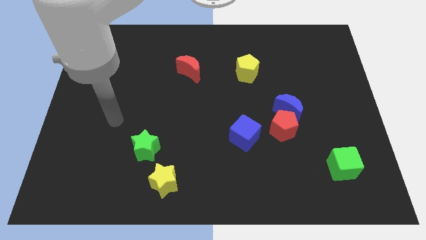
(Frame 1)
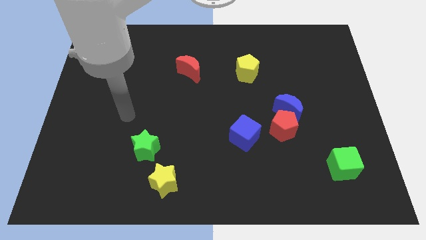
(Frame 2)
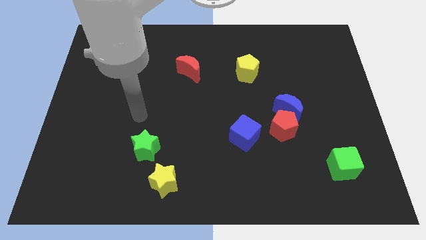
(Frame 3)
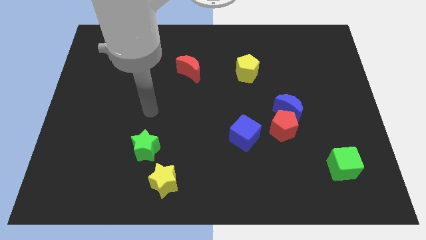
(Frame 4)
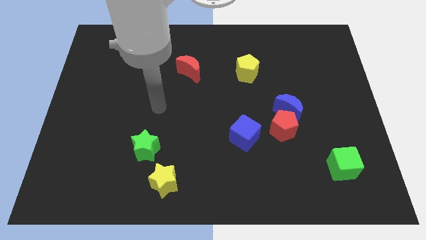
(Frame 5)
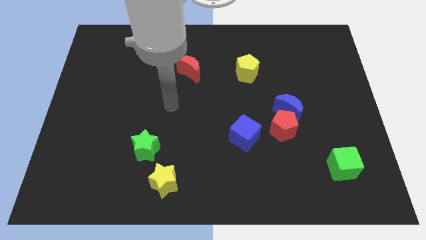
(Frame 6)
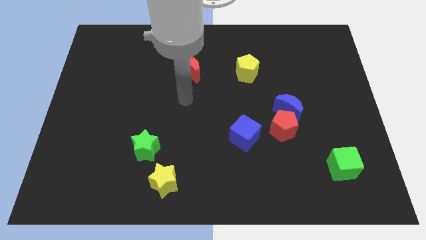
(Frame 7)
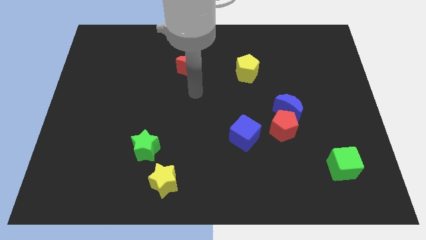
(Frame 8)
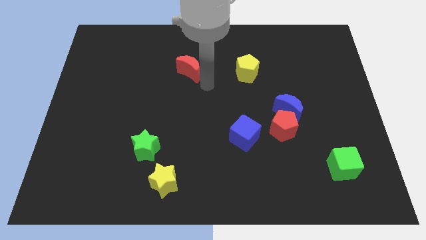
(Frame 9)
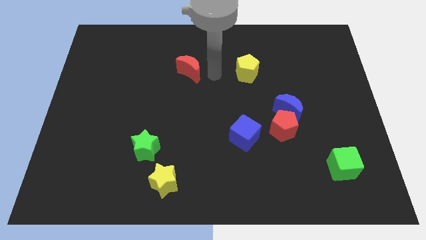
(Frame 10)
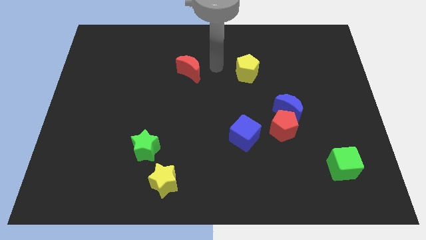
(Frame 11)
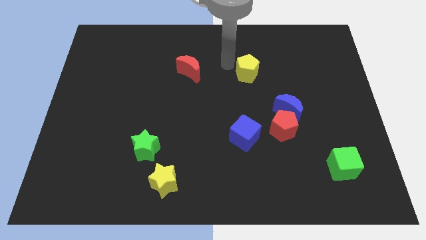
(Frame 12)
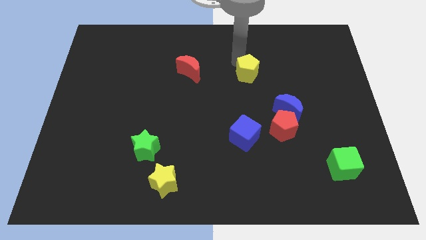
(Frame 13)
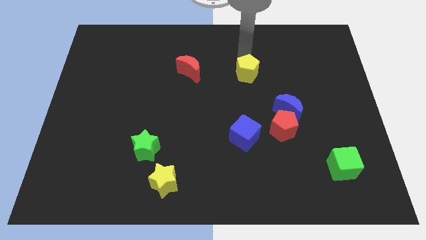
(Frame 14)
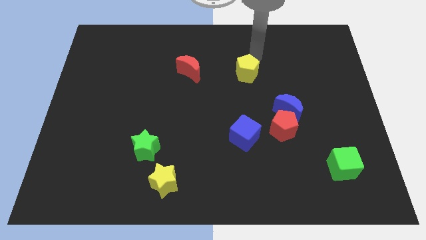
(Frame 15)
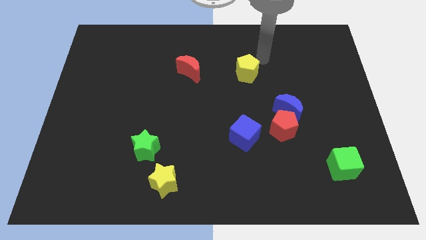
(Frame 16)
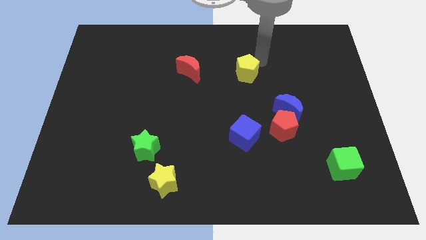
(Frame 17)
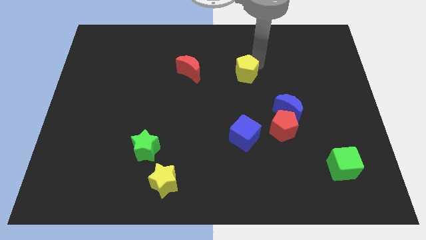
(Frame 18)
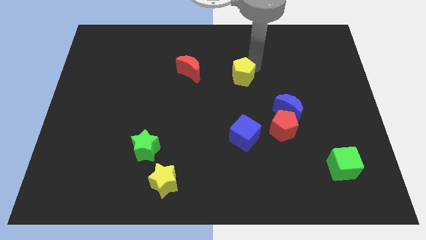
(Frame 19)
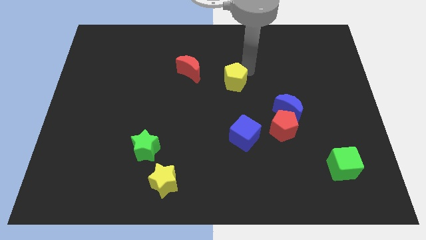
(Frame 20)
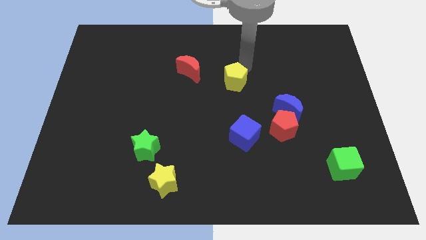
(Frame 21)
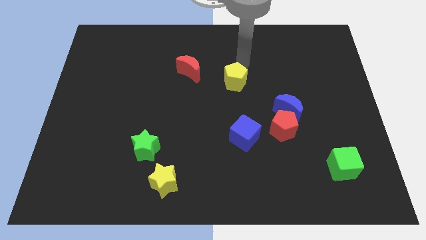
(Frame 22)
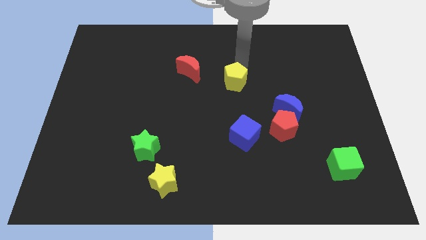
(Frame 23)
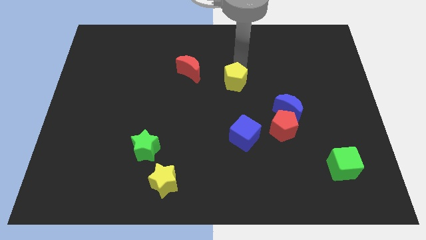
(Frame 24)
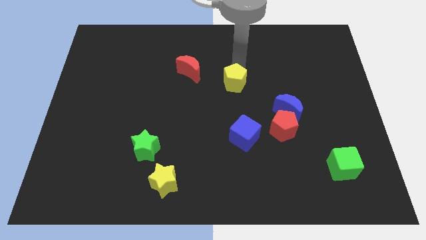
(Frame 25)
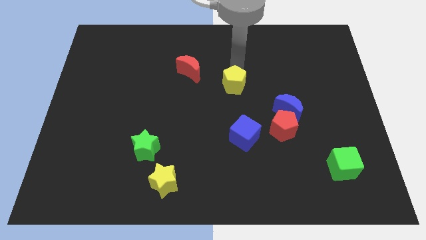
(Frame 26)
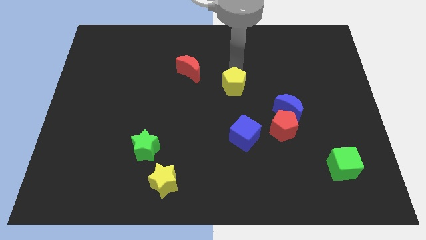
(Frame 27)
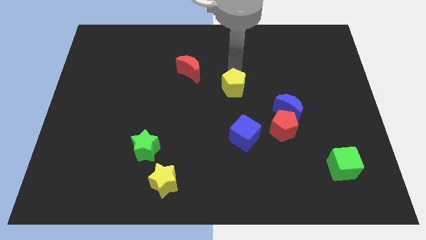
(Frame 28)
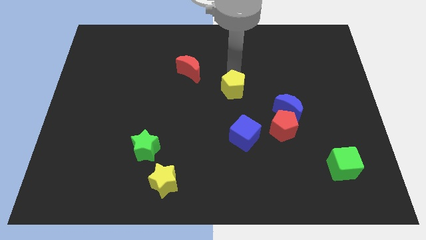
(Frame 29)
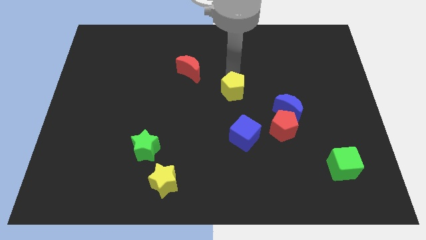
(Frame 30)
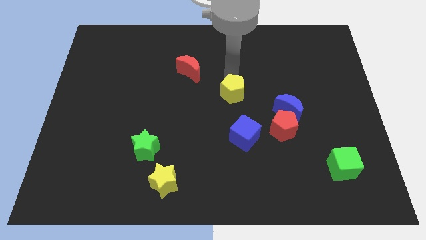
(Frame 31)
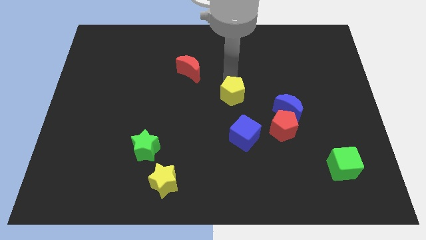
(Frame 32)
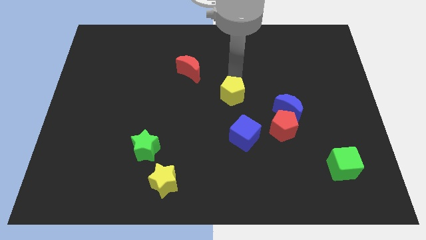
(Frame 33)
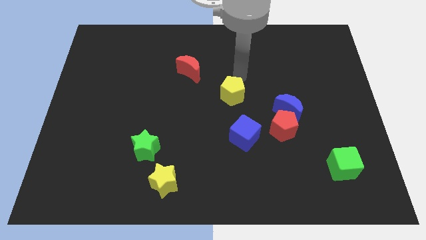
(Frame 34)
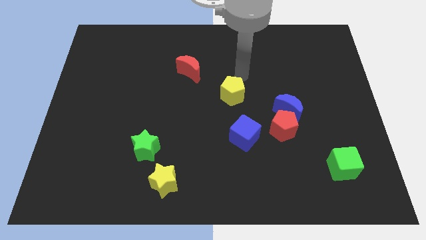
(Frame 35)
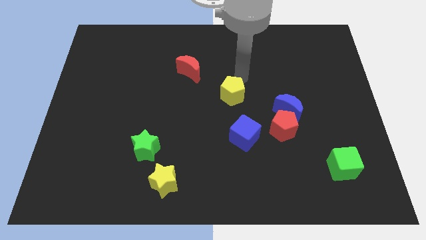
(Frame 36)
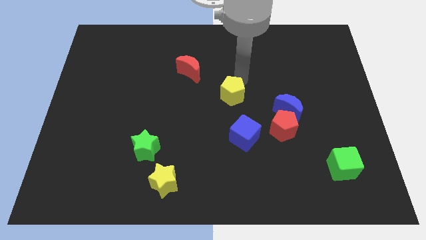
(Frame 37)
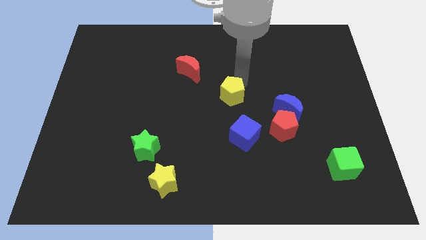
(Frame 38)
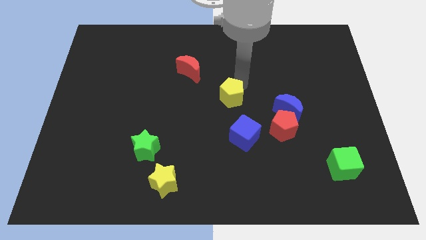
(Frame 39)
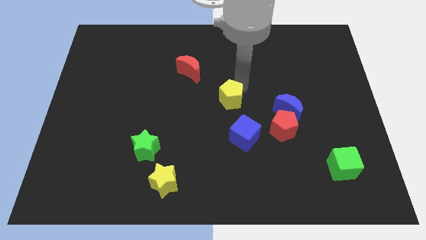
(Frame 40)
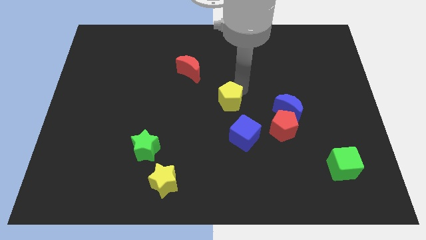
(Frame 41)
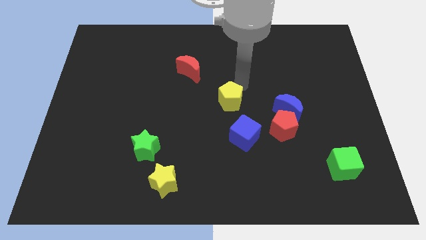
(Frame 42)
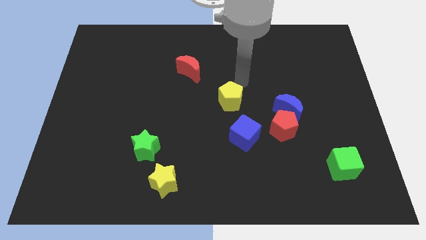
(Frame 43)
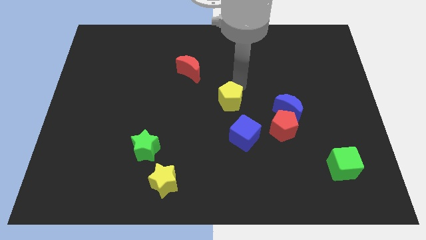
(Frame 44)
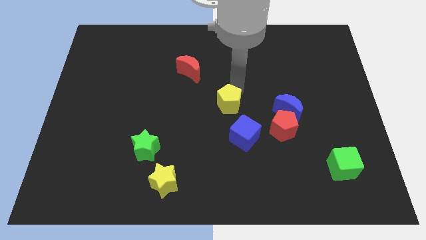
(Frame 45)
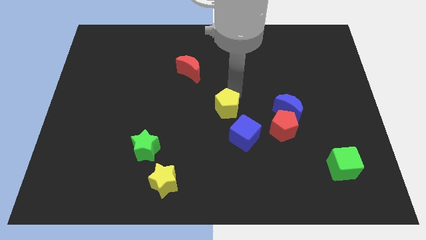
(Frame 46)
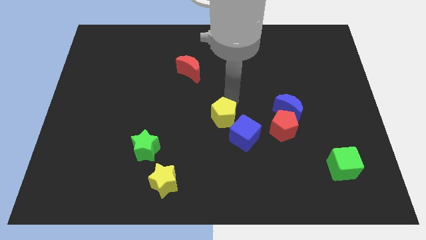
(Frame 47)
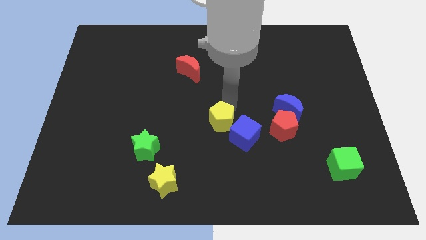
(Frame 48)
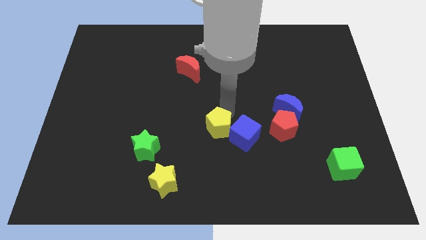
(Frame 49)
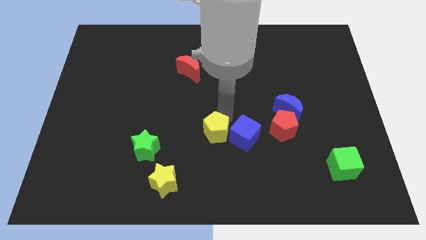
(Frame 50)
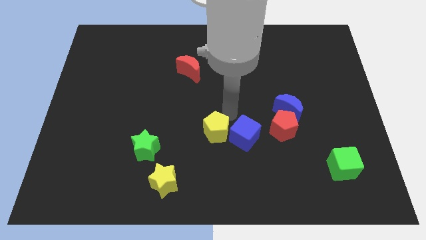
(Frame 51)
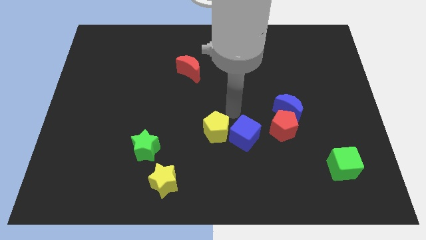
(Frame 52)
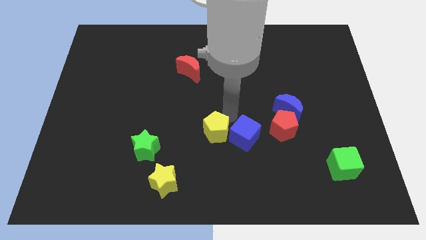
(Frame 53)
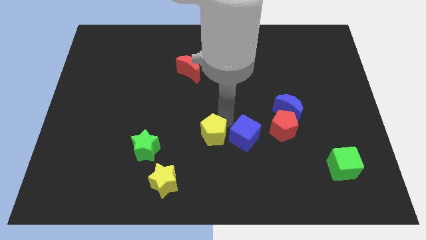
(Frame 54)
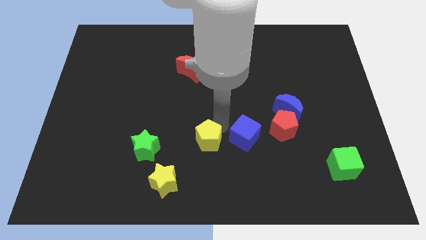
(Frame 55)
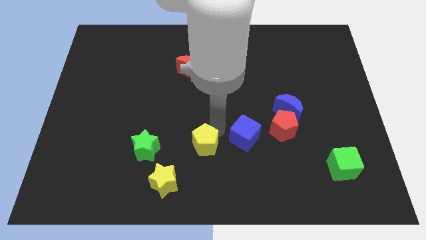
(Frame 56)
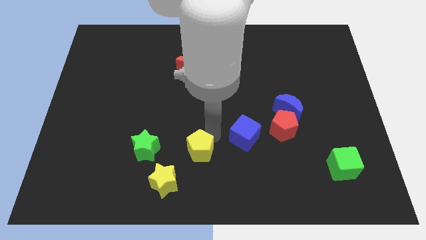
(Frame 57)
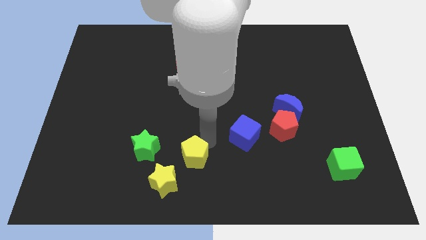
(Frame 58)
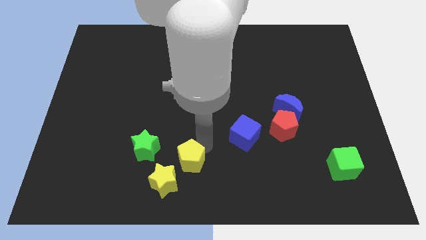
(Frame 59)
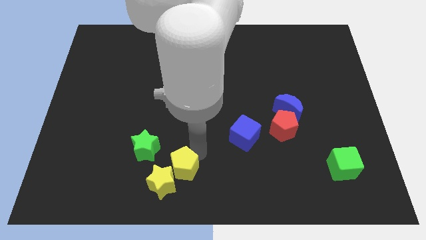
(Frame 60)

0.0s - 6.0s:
move the yellow pentagon to the yellow star
